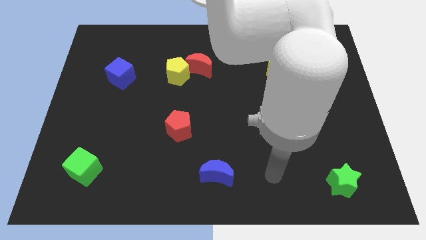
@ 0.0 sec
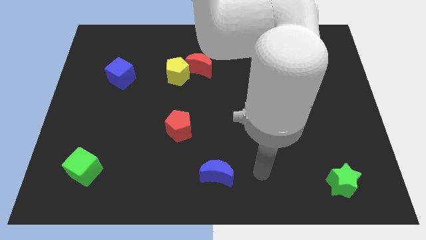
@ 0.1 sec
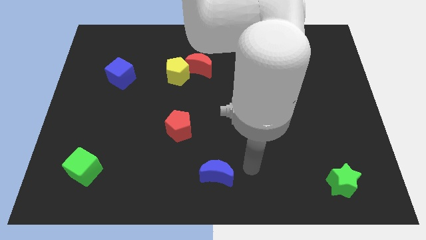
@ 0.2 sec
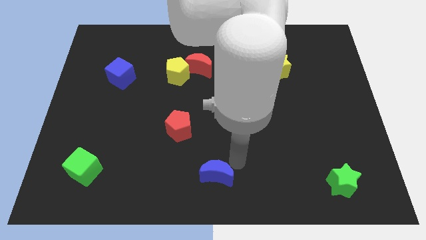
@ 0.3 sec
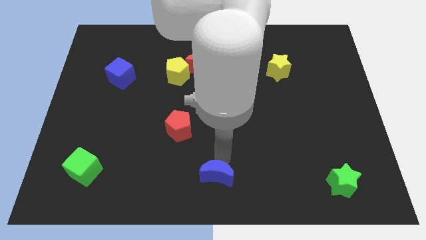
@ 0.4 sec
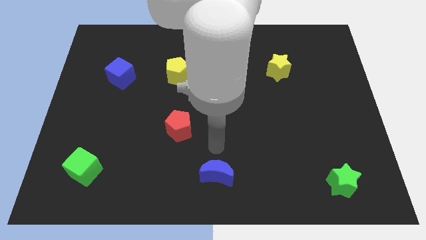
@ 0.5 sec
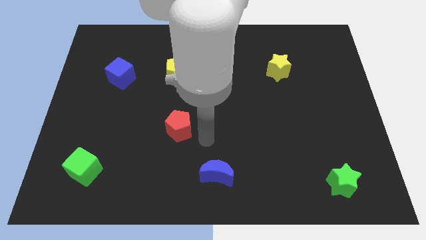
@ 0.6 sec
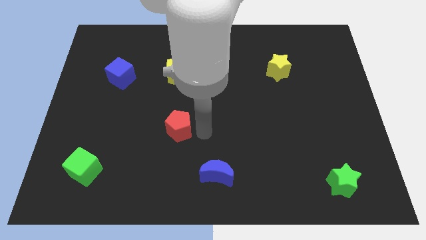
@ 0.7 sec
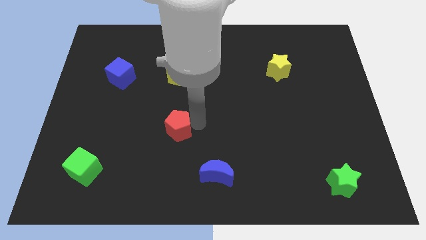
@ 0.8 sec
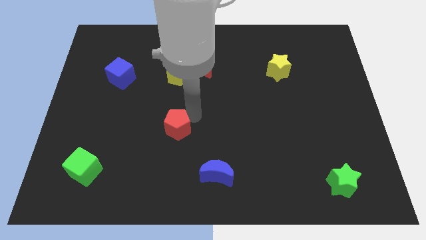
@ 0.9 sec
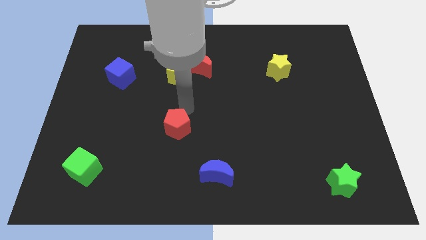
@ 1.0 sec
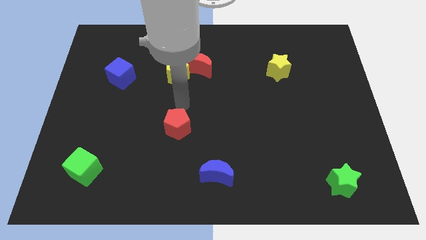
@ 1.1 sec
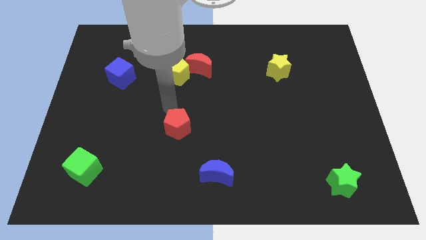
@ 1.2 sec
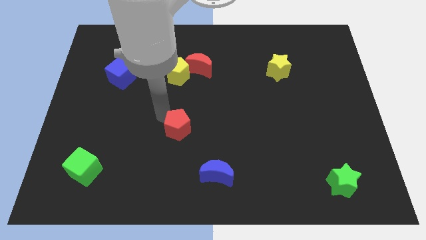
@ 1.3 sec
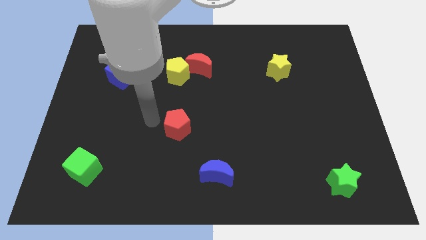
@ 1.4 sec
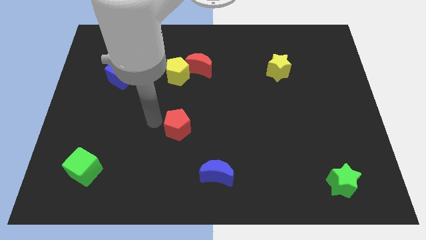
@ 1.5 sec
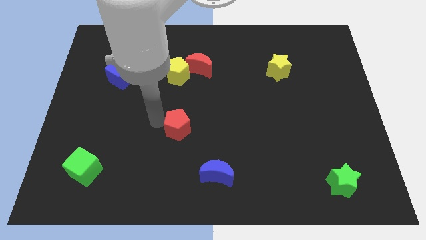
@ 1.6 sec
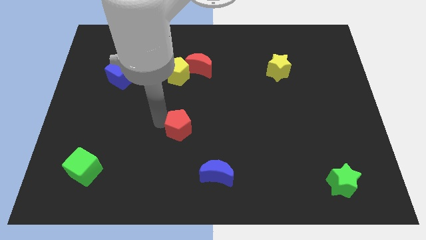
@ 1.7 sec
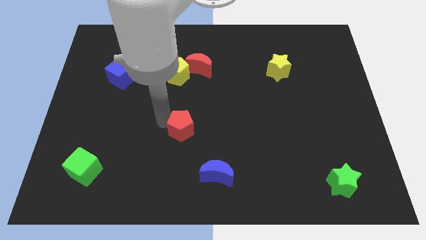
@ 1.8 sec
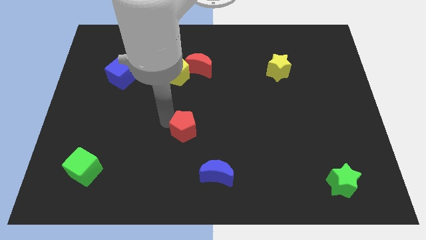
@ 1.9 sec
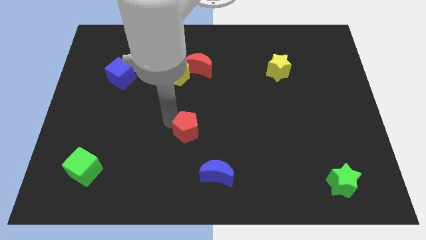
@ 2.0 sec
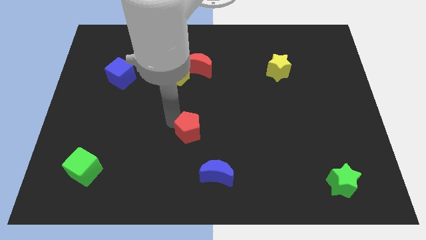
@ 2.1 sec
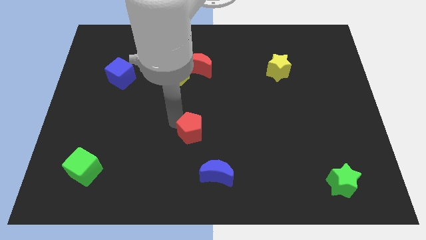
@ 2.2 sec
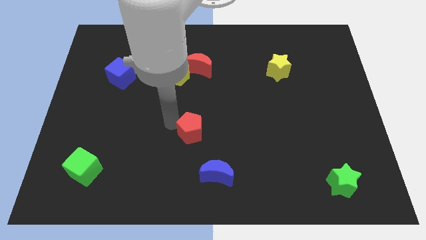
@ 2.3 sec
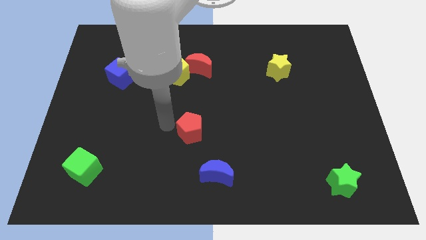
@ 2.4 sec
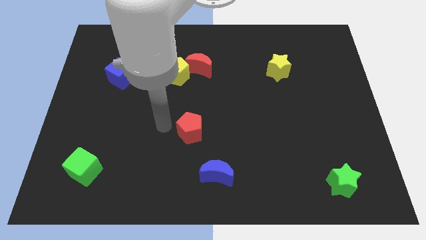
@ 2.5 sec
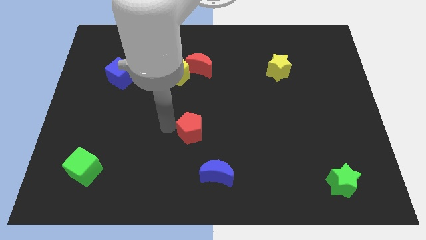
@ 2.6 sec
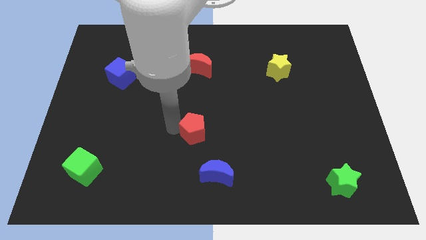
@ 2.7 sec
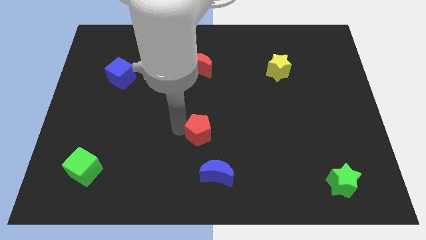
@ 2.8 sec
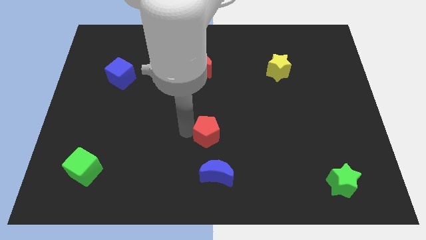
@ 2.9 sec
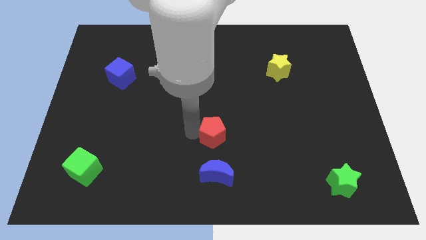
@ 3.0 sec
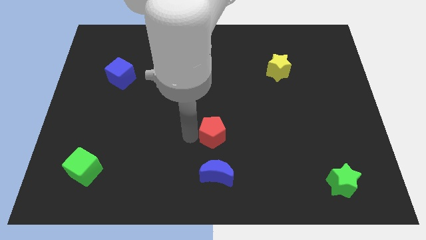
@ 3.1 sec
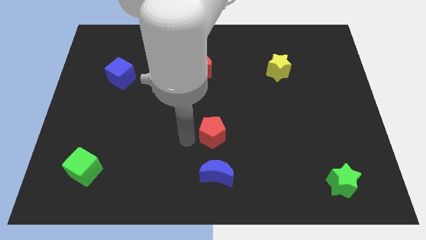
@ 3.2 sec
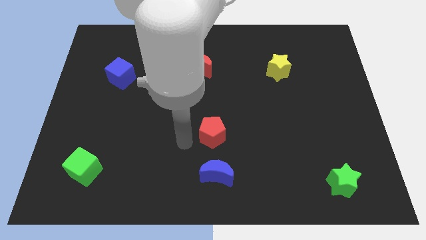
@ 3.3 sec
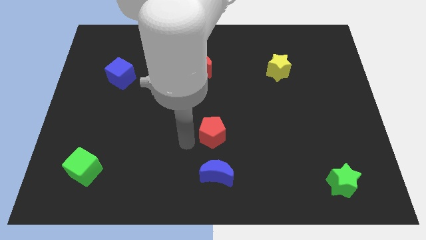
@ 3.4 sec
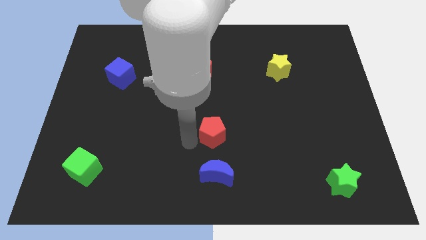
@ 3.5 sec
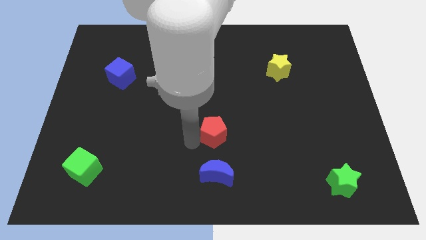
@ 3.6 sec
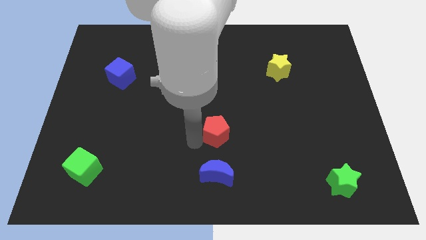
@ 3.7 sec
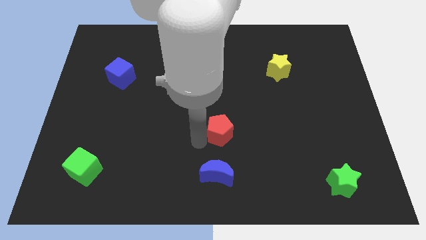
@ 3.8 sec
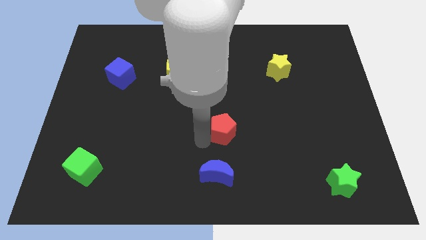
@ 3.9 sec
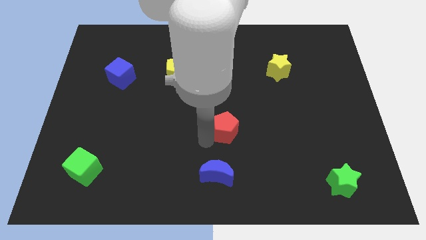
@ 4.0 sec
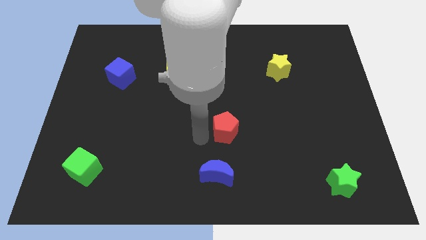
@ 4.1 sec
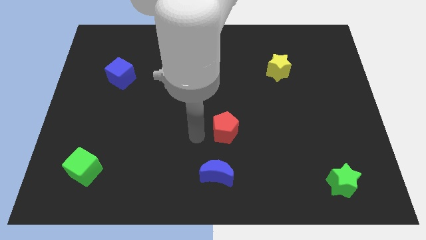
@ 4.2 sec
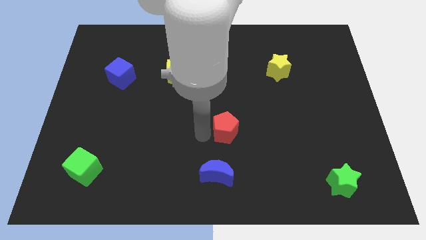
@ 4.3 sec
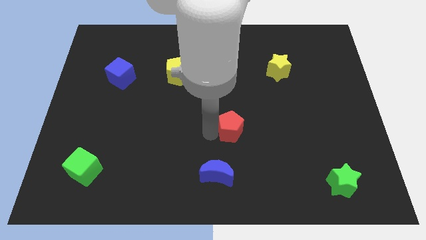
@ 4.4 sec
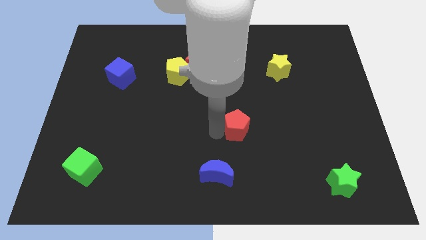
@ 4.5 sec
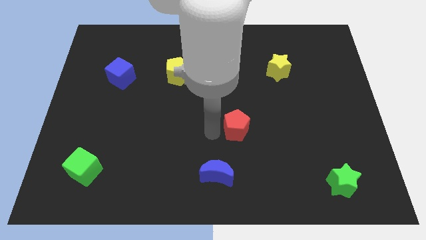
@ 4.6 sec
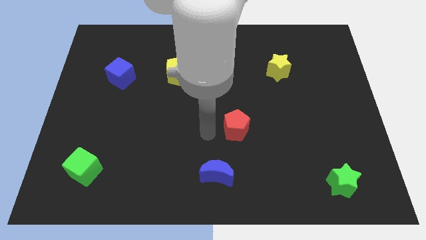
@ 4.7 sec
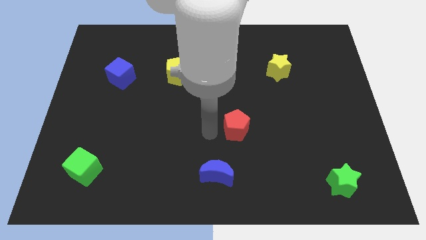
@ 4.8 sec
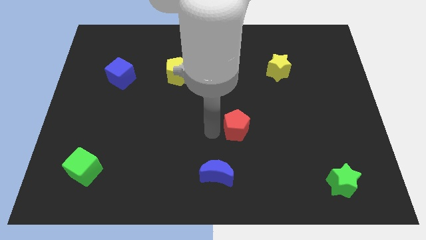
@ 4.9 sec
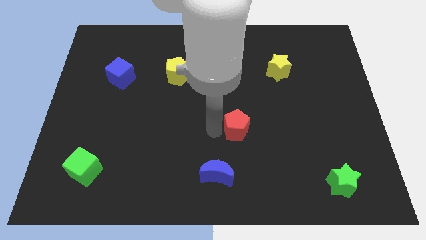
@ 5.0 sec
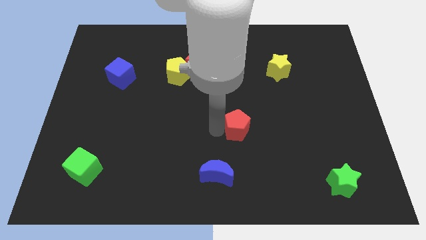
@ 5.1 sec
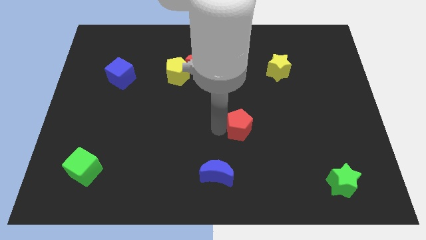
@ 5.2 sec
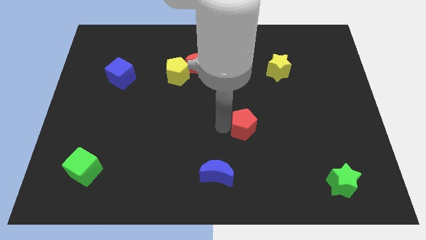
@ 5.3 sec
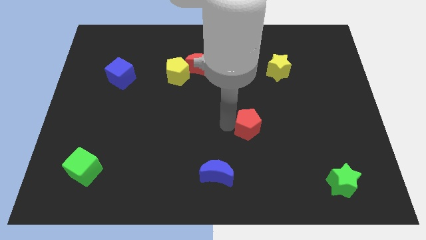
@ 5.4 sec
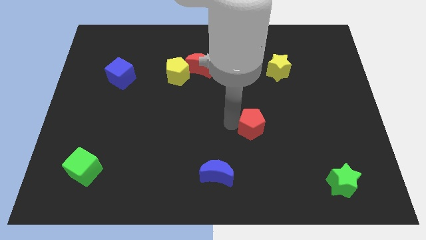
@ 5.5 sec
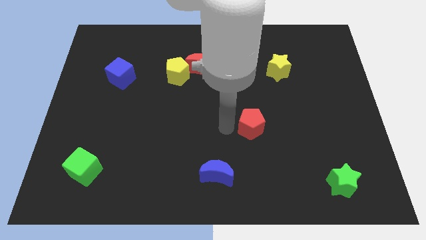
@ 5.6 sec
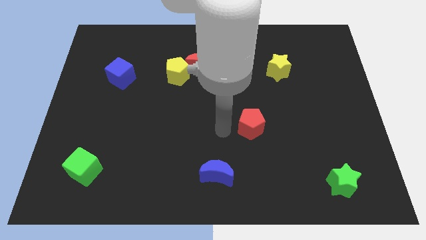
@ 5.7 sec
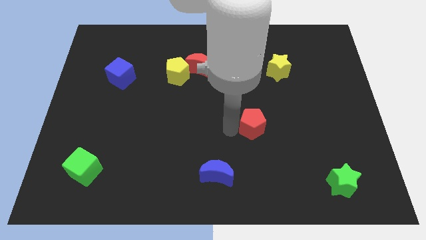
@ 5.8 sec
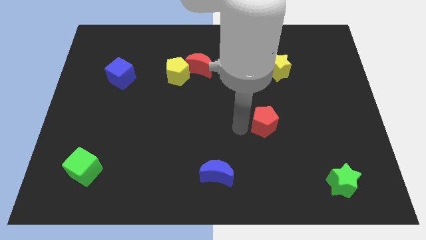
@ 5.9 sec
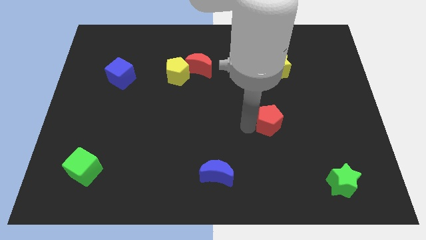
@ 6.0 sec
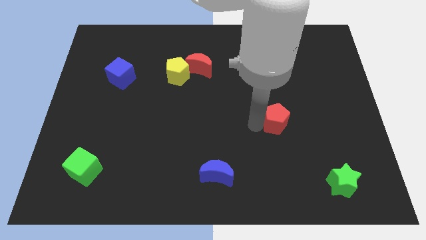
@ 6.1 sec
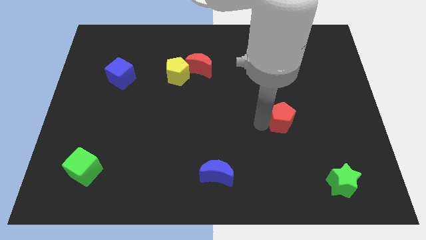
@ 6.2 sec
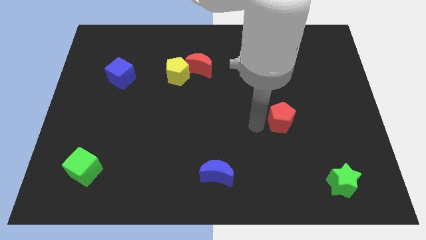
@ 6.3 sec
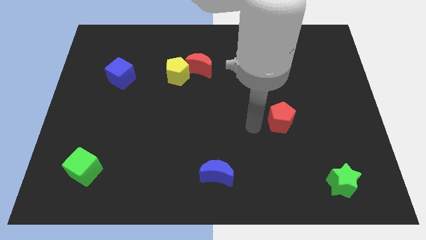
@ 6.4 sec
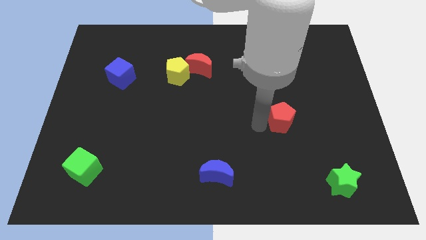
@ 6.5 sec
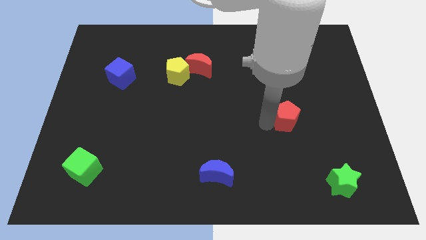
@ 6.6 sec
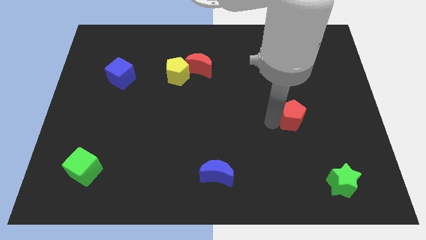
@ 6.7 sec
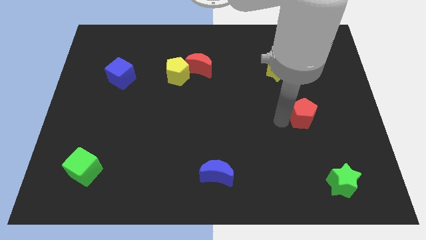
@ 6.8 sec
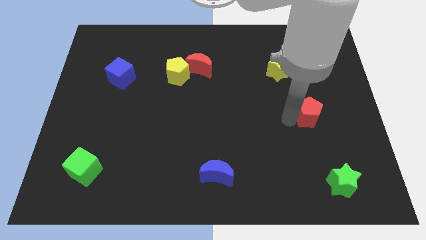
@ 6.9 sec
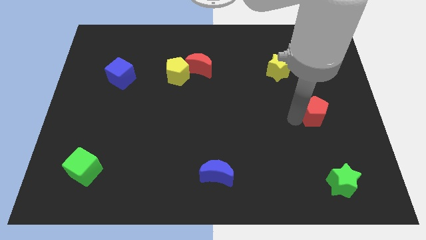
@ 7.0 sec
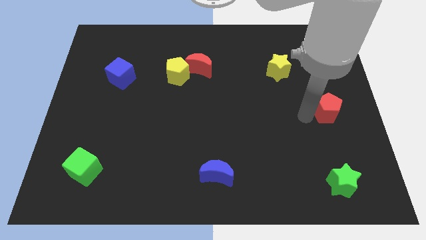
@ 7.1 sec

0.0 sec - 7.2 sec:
slide the red pentagon to the center right
